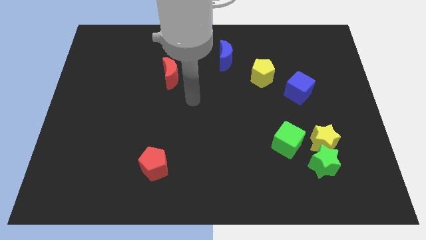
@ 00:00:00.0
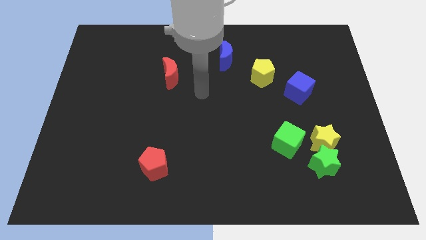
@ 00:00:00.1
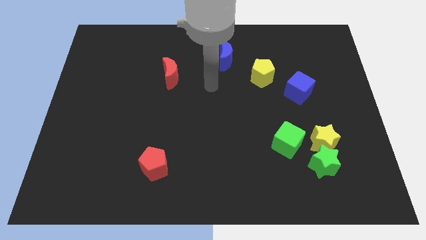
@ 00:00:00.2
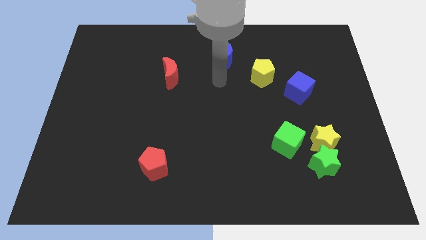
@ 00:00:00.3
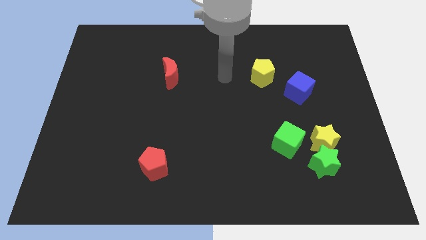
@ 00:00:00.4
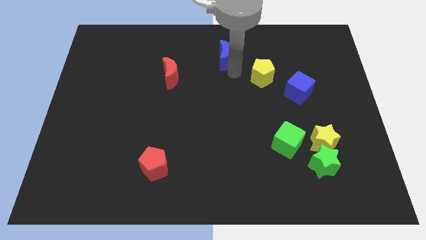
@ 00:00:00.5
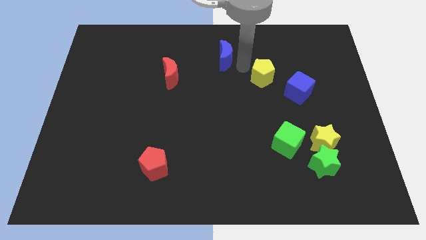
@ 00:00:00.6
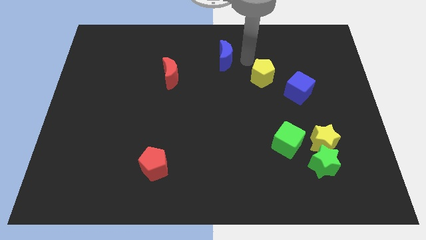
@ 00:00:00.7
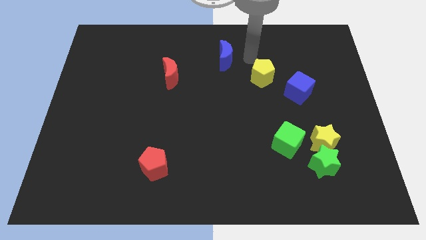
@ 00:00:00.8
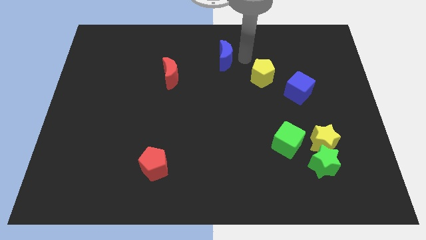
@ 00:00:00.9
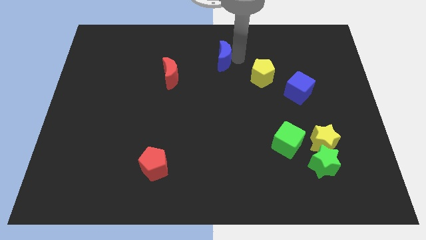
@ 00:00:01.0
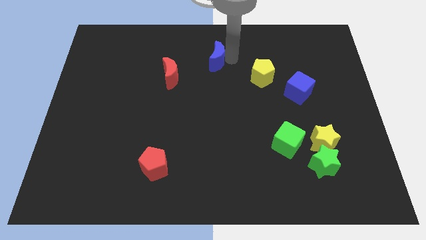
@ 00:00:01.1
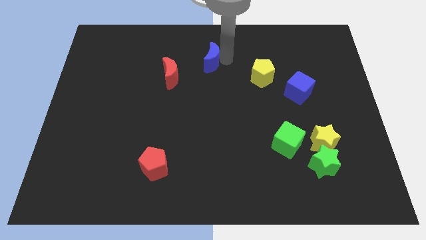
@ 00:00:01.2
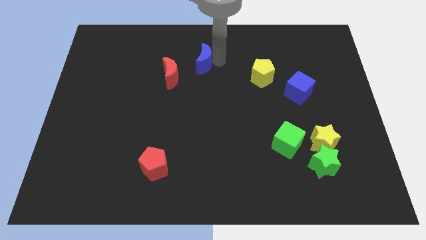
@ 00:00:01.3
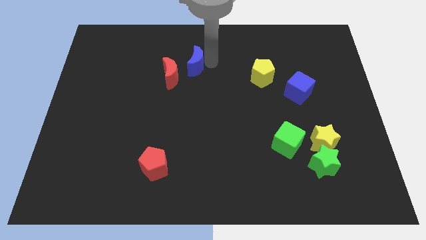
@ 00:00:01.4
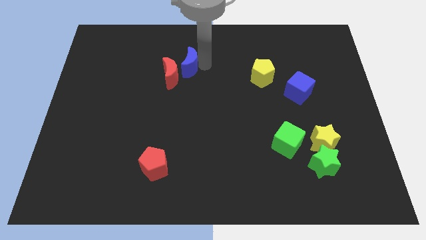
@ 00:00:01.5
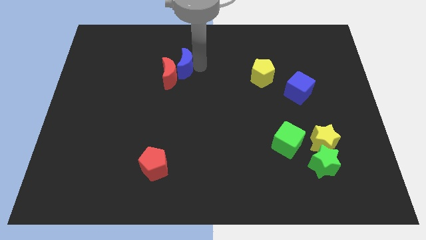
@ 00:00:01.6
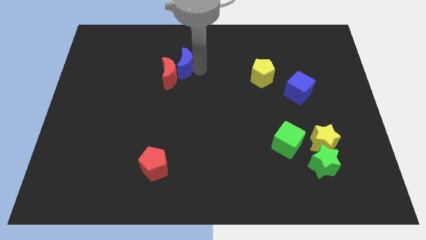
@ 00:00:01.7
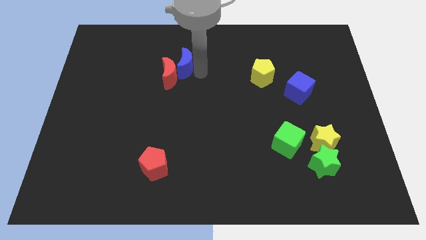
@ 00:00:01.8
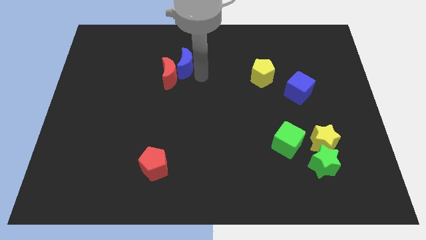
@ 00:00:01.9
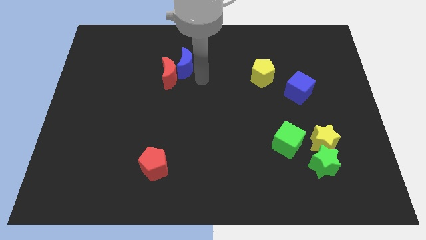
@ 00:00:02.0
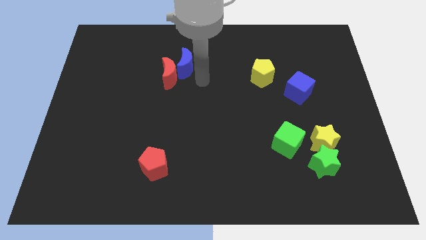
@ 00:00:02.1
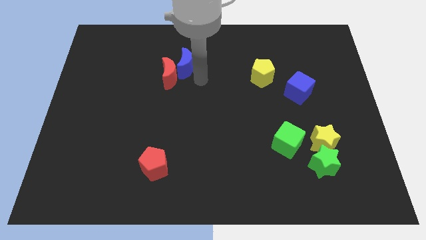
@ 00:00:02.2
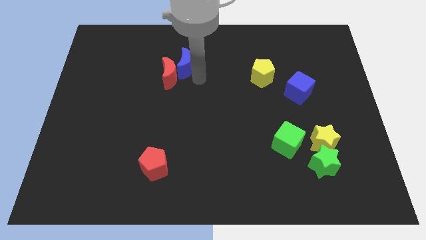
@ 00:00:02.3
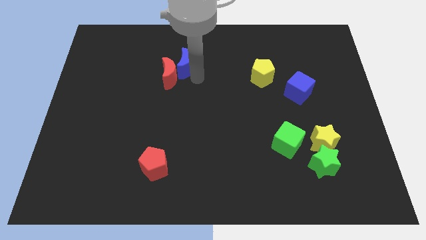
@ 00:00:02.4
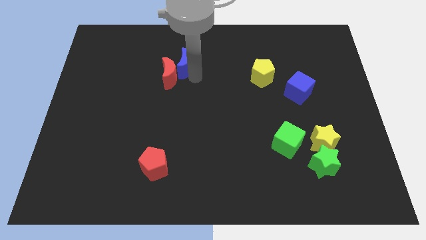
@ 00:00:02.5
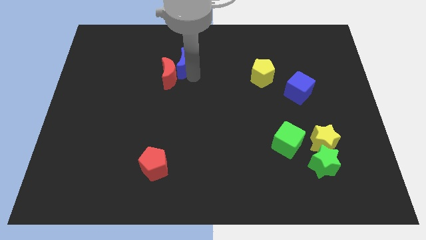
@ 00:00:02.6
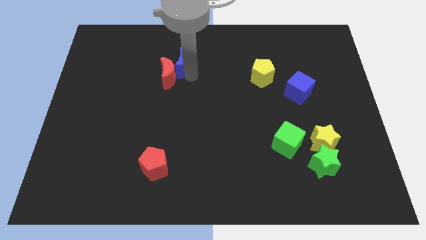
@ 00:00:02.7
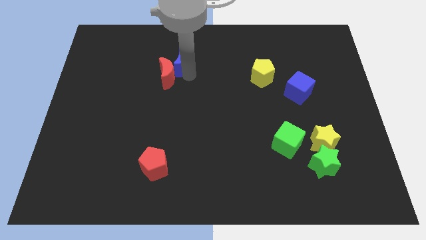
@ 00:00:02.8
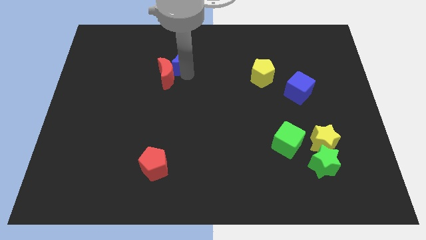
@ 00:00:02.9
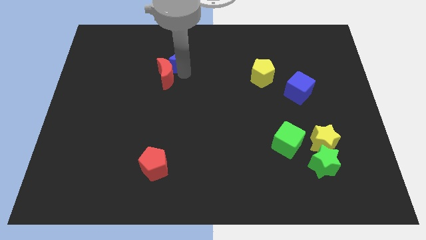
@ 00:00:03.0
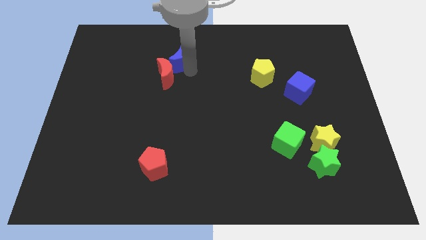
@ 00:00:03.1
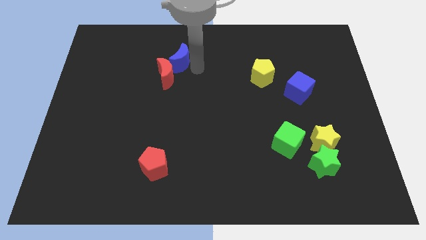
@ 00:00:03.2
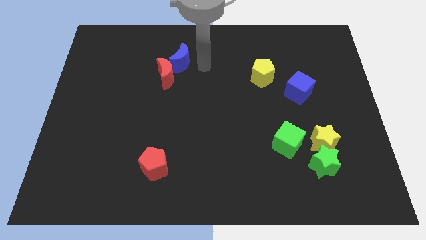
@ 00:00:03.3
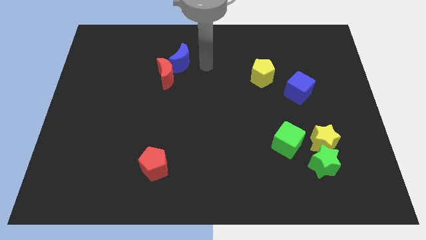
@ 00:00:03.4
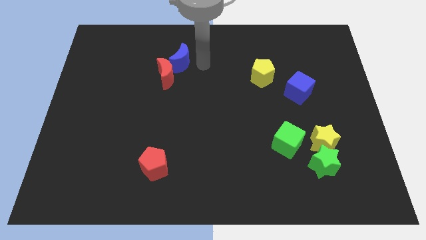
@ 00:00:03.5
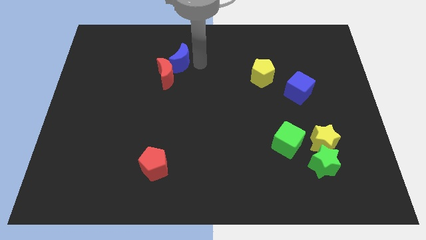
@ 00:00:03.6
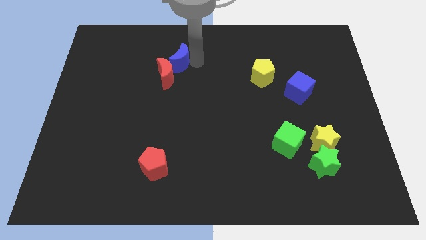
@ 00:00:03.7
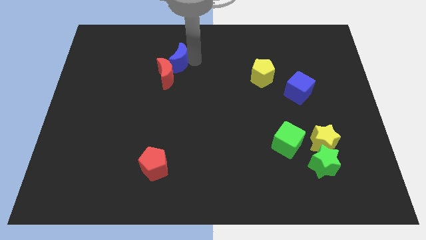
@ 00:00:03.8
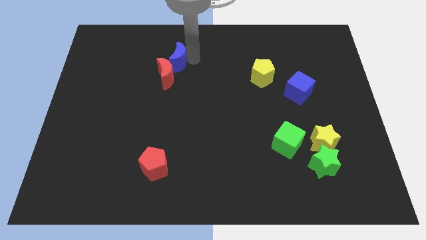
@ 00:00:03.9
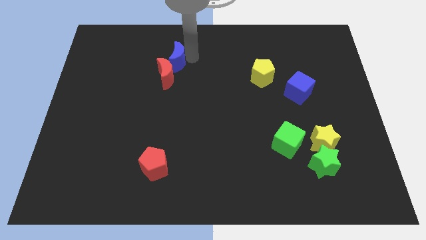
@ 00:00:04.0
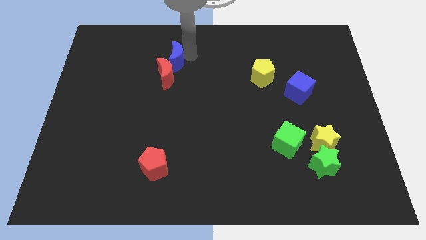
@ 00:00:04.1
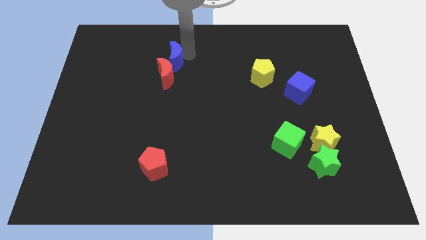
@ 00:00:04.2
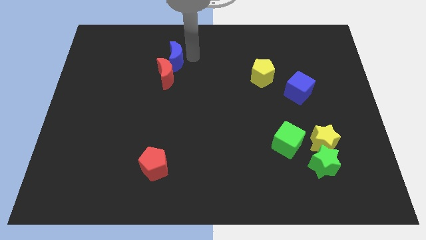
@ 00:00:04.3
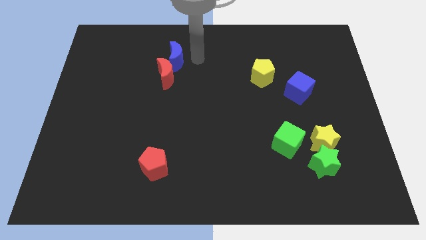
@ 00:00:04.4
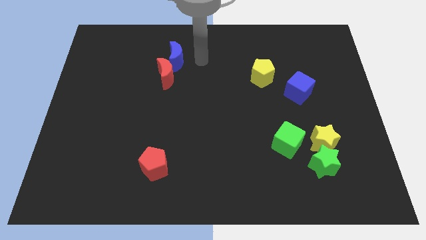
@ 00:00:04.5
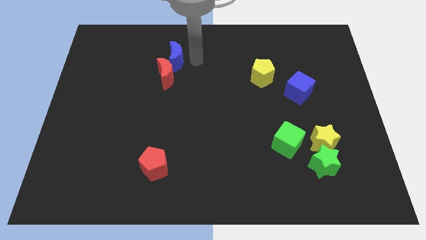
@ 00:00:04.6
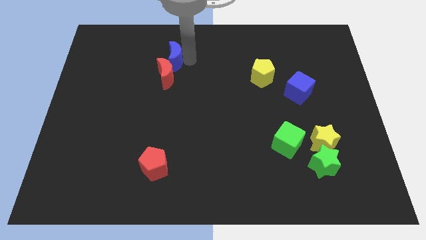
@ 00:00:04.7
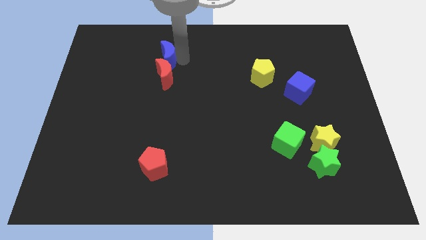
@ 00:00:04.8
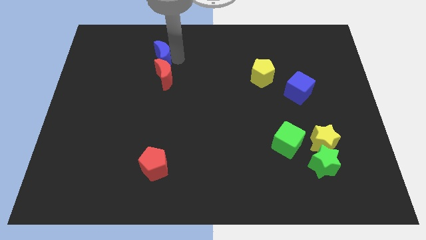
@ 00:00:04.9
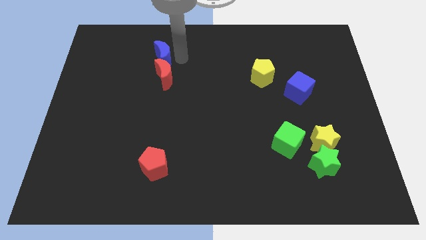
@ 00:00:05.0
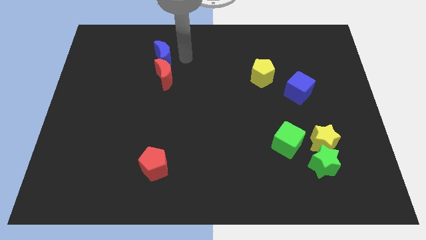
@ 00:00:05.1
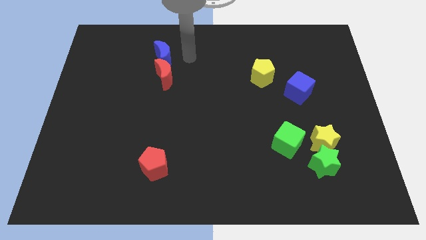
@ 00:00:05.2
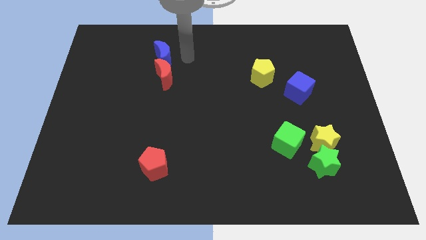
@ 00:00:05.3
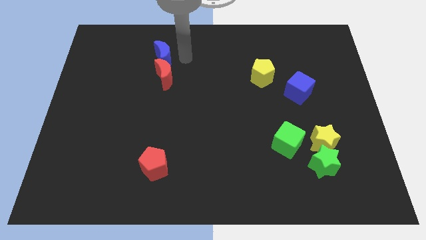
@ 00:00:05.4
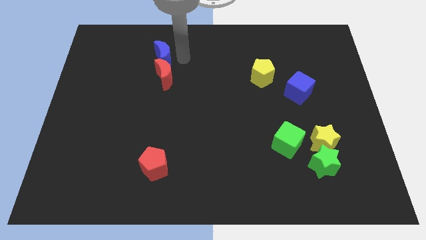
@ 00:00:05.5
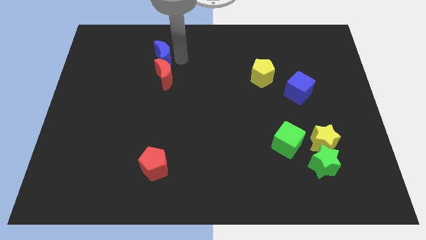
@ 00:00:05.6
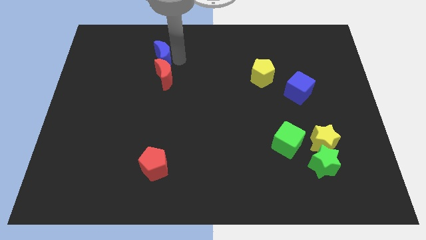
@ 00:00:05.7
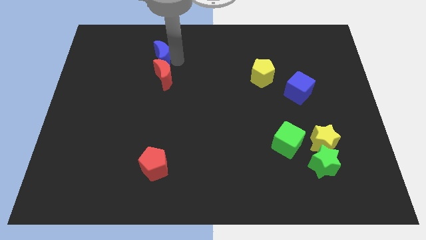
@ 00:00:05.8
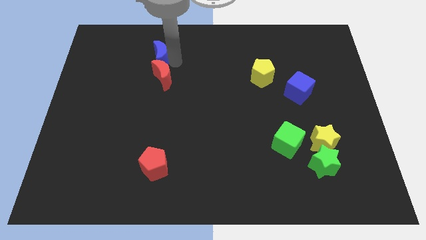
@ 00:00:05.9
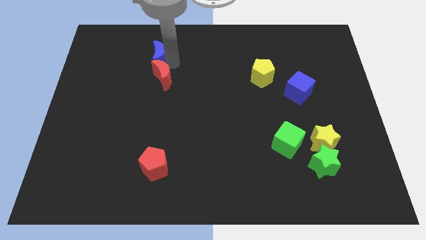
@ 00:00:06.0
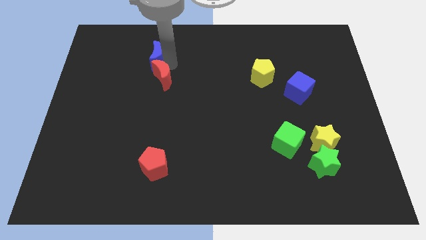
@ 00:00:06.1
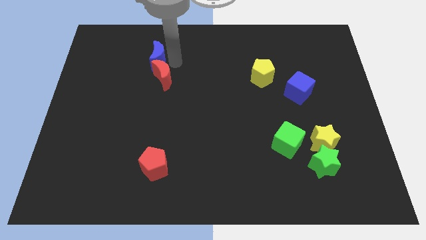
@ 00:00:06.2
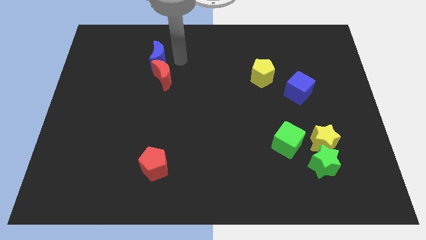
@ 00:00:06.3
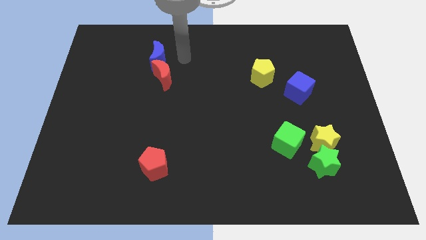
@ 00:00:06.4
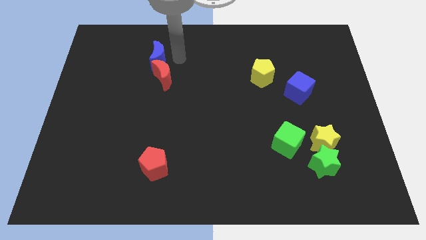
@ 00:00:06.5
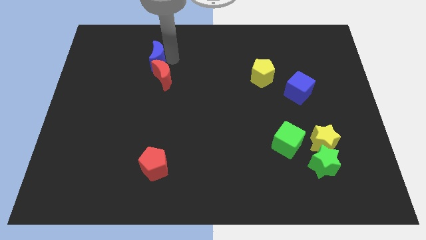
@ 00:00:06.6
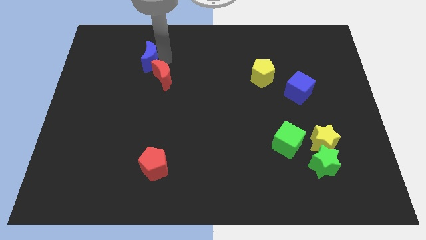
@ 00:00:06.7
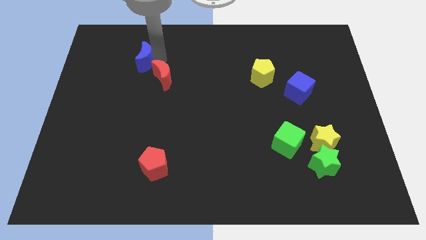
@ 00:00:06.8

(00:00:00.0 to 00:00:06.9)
slide the blue moon left

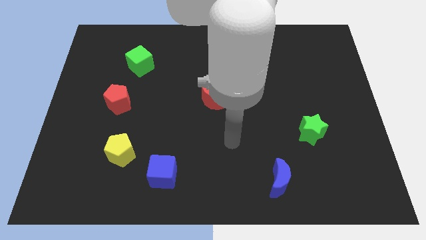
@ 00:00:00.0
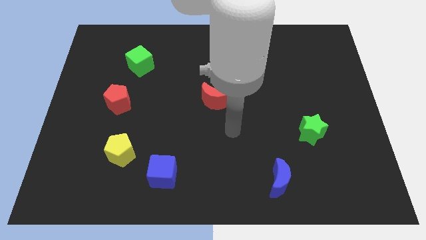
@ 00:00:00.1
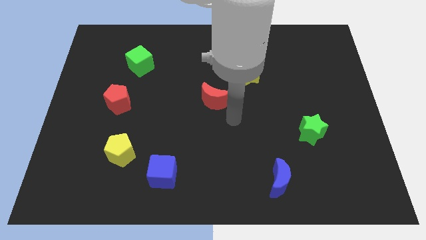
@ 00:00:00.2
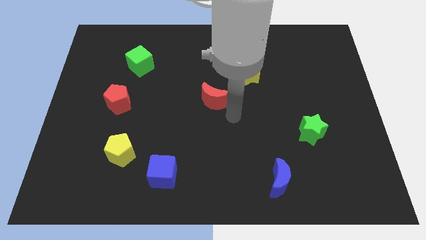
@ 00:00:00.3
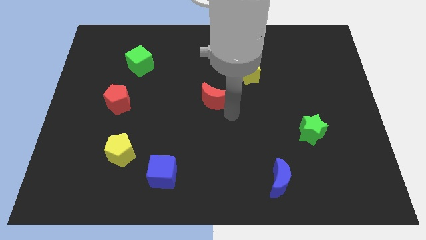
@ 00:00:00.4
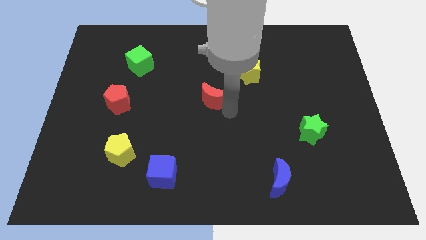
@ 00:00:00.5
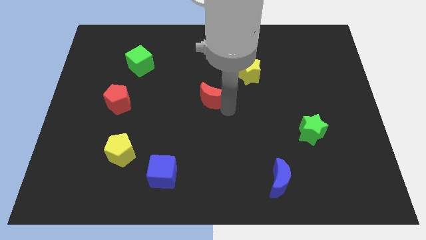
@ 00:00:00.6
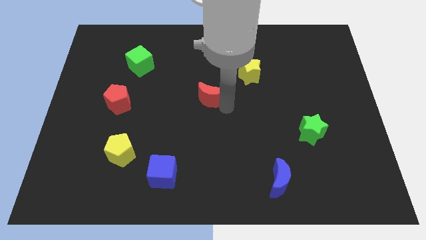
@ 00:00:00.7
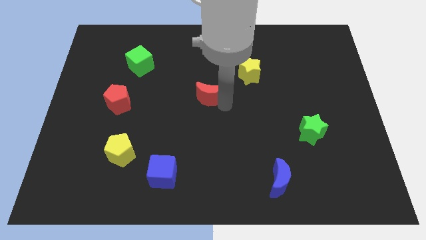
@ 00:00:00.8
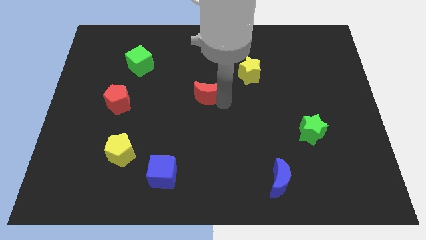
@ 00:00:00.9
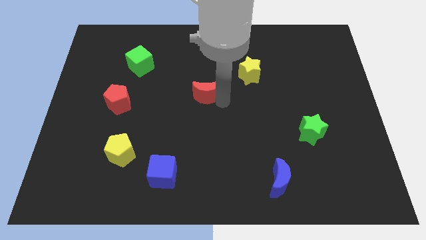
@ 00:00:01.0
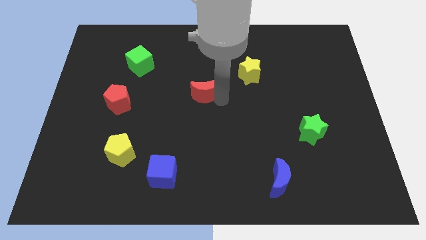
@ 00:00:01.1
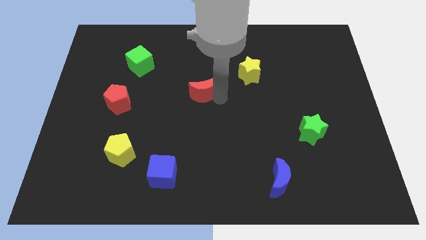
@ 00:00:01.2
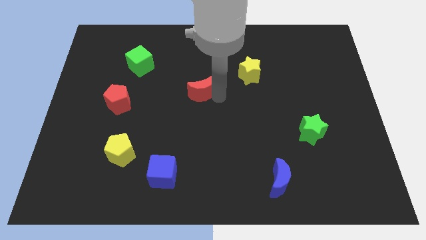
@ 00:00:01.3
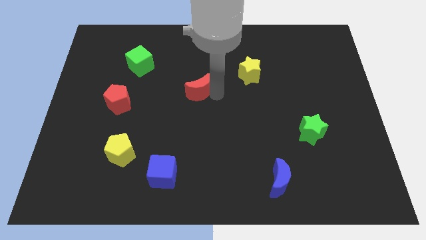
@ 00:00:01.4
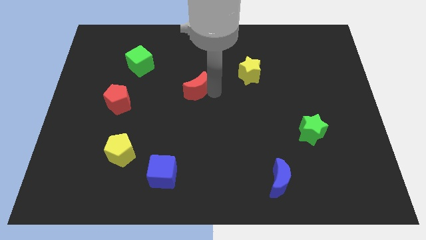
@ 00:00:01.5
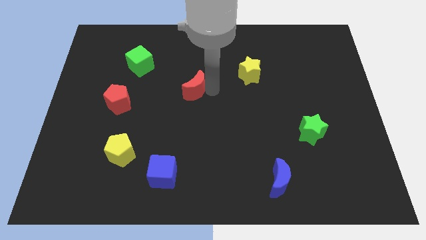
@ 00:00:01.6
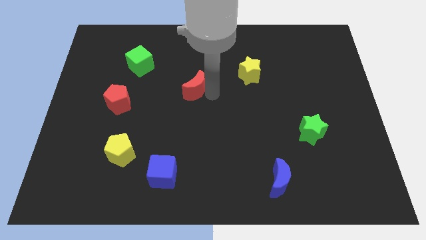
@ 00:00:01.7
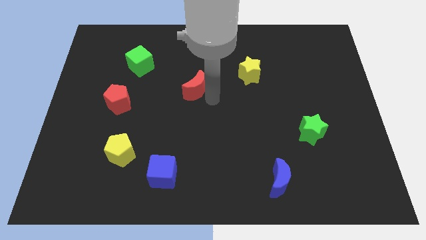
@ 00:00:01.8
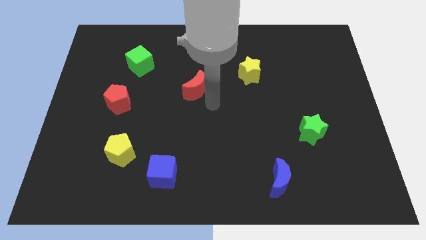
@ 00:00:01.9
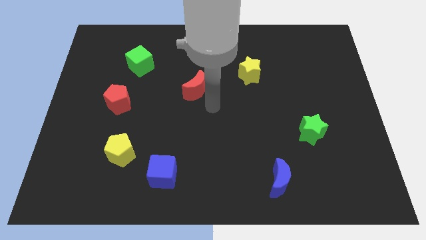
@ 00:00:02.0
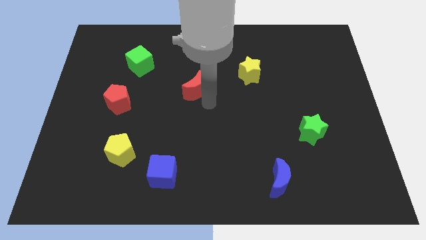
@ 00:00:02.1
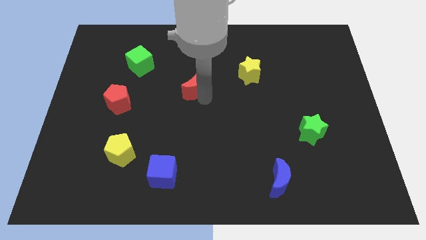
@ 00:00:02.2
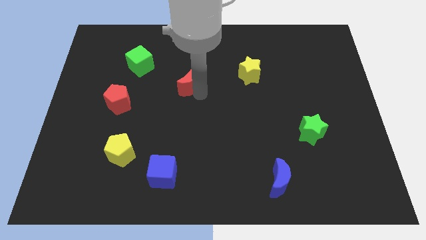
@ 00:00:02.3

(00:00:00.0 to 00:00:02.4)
slightly push the red moon upwards and to the left
